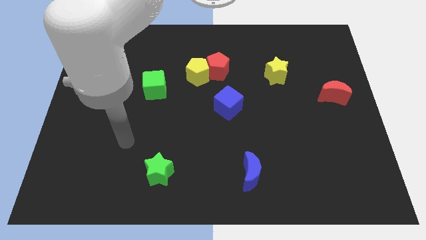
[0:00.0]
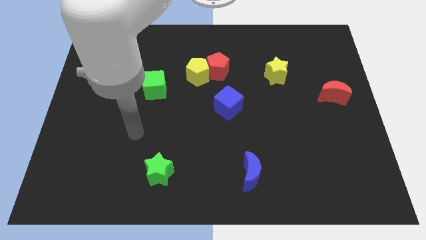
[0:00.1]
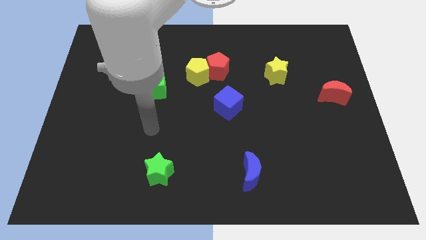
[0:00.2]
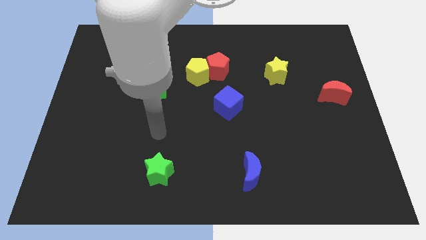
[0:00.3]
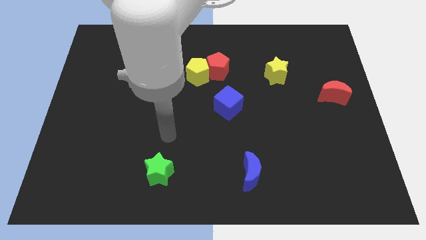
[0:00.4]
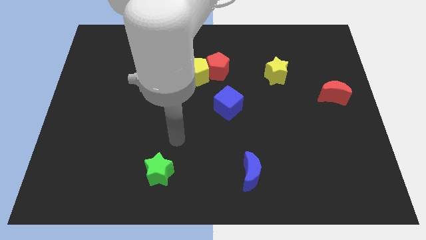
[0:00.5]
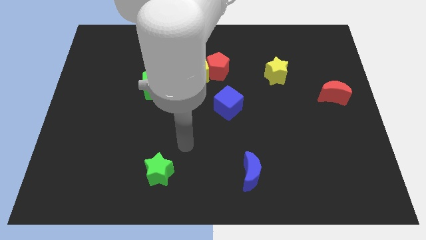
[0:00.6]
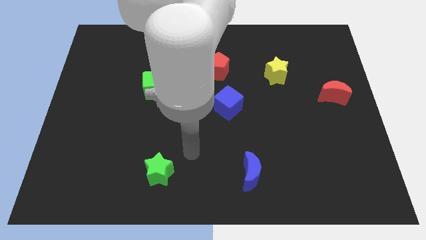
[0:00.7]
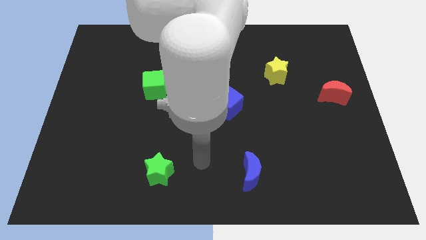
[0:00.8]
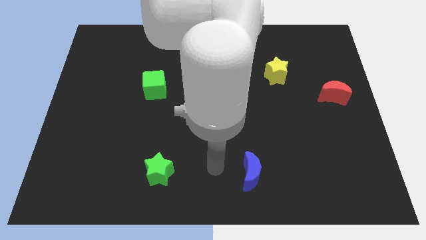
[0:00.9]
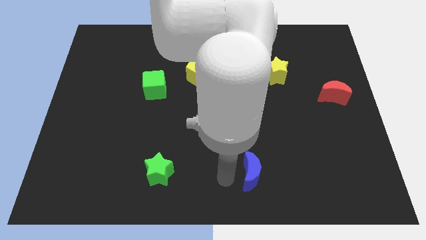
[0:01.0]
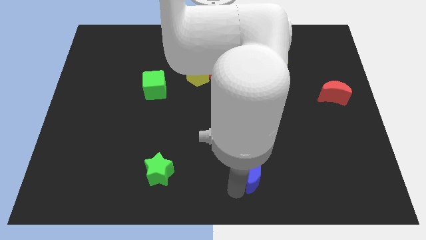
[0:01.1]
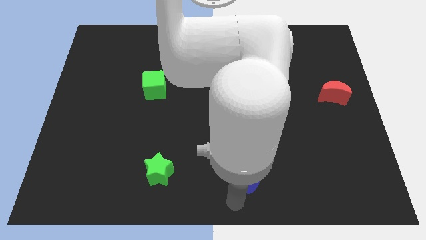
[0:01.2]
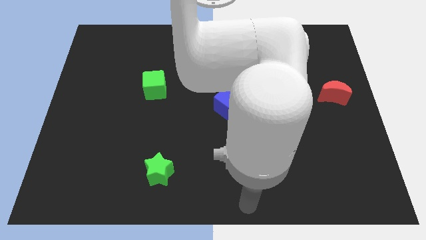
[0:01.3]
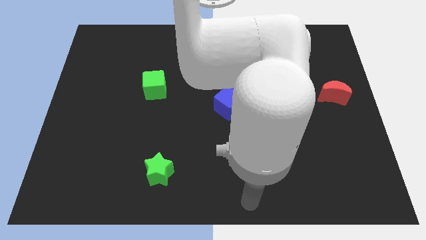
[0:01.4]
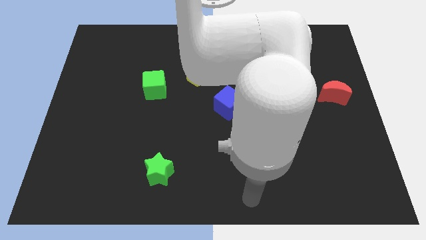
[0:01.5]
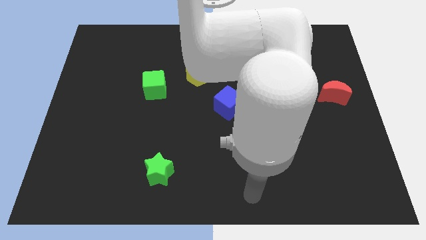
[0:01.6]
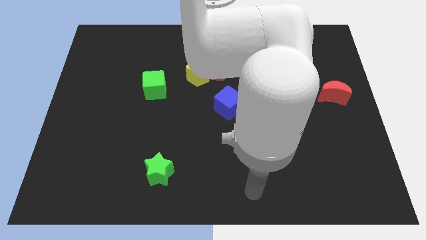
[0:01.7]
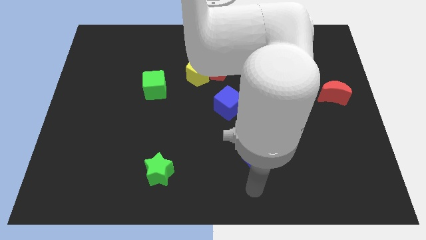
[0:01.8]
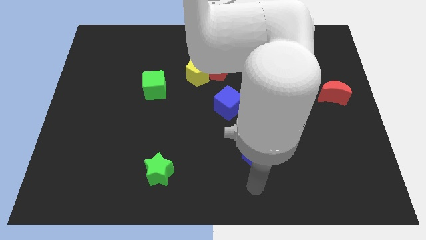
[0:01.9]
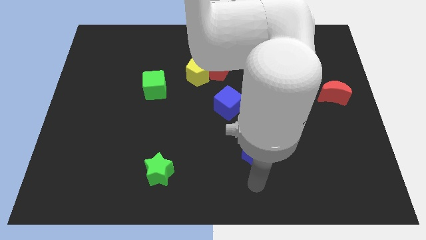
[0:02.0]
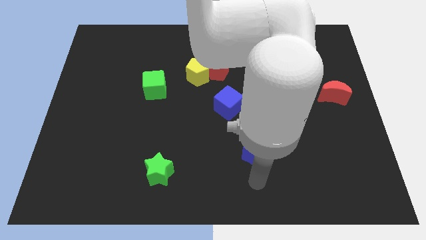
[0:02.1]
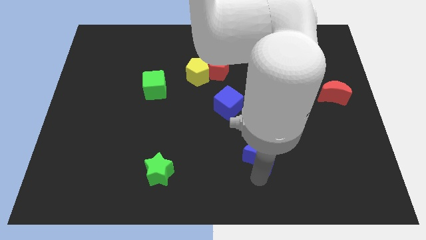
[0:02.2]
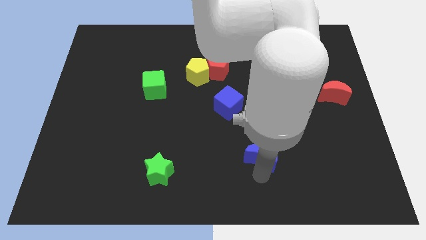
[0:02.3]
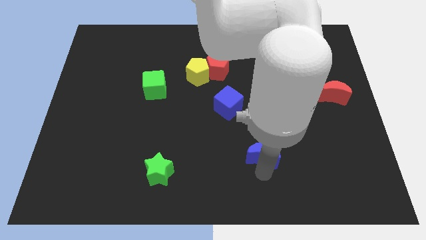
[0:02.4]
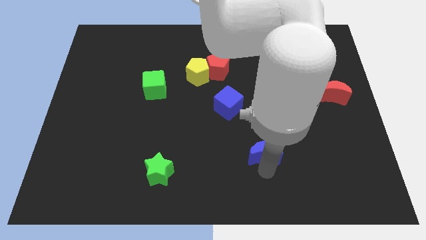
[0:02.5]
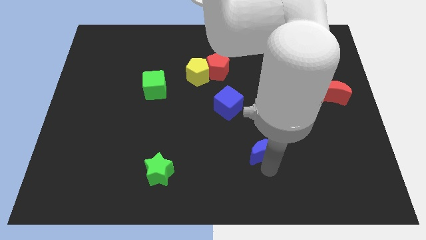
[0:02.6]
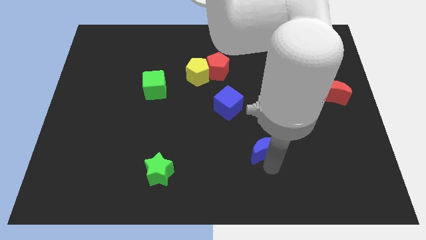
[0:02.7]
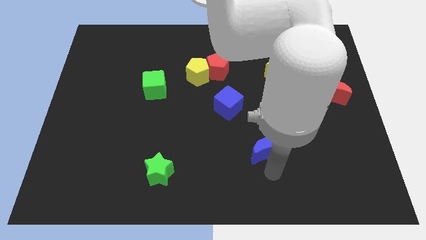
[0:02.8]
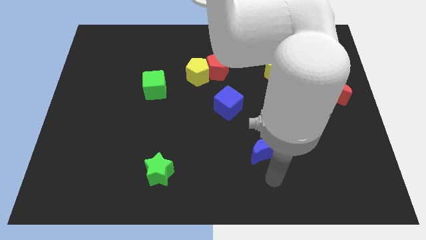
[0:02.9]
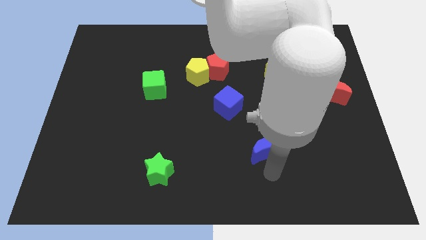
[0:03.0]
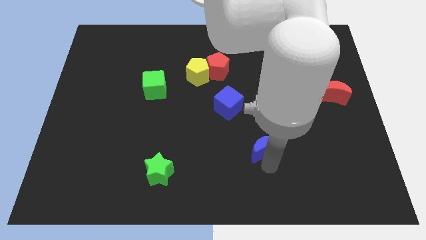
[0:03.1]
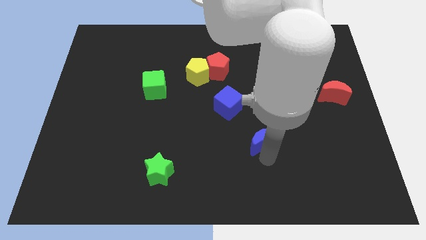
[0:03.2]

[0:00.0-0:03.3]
slightly move the blue moon upwards

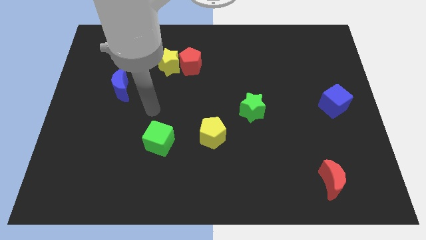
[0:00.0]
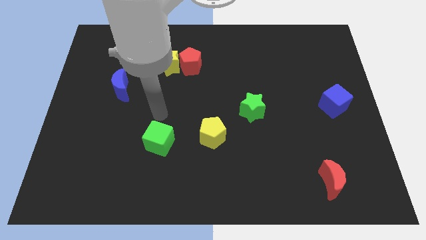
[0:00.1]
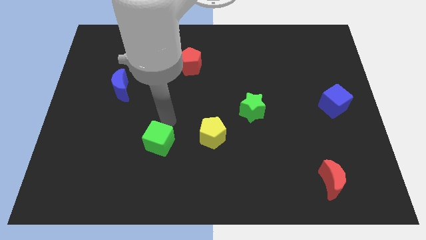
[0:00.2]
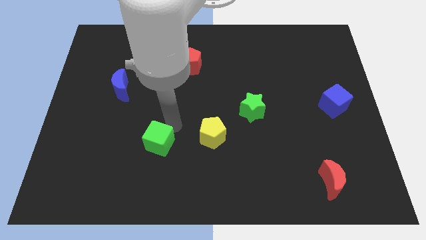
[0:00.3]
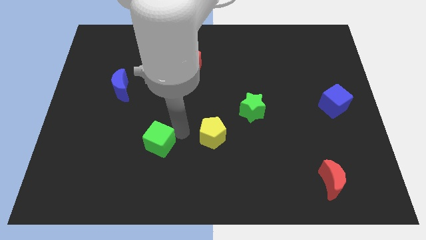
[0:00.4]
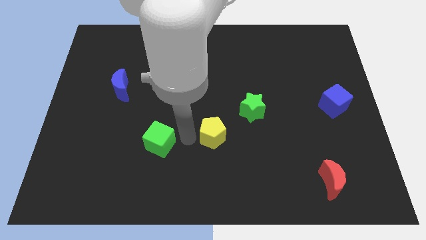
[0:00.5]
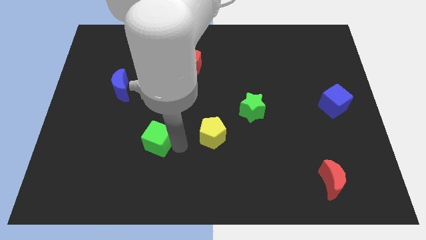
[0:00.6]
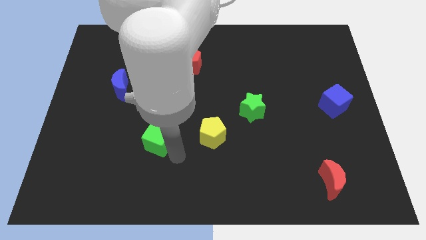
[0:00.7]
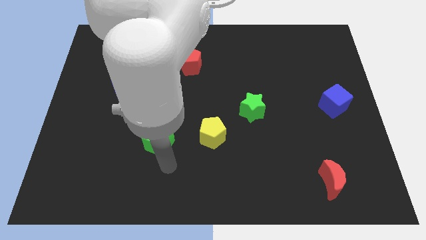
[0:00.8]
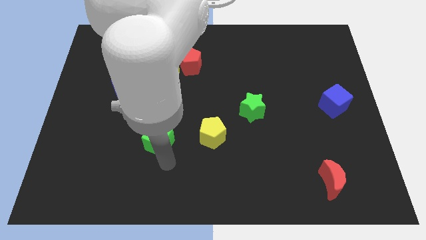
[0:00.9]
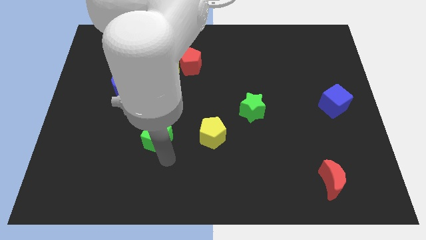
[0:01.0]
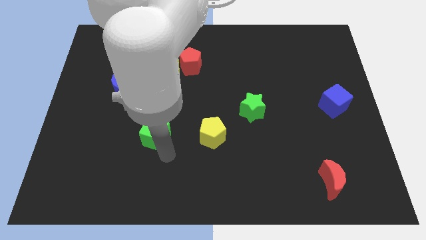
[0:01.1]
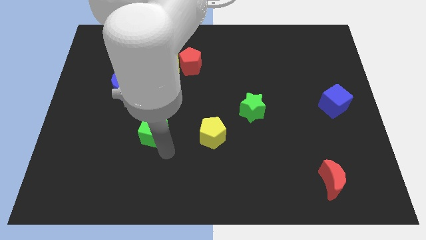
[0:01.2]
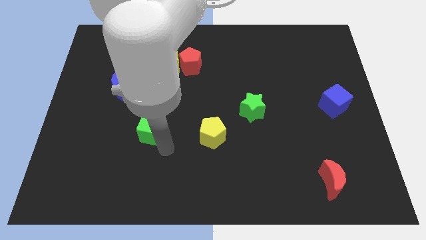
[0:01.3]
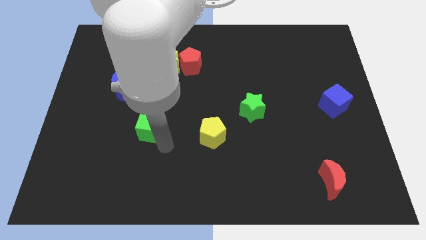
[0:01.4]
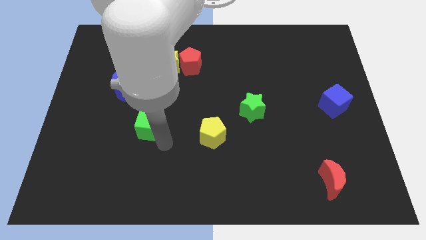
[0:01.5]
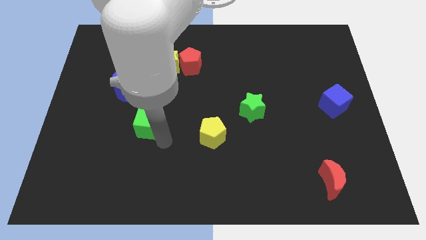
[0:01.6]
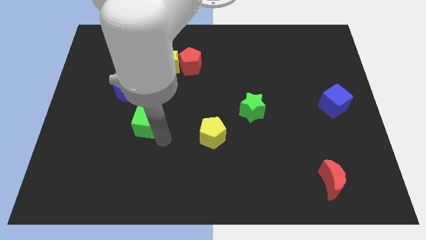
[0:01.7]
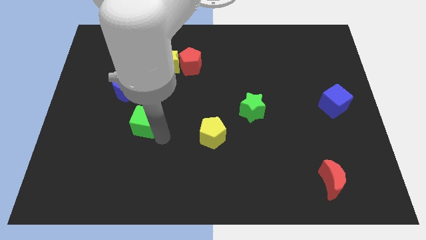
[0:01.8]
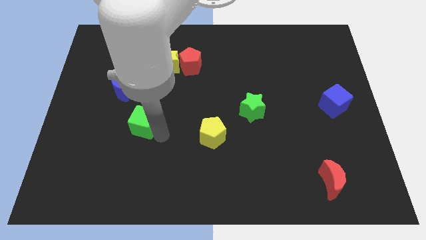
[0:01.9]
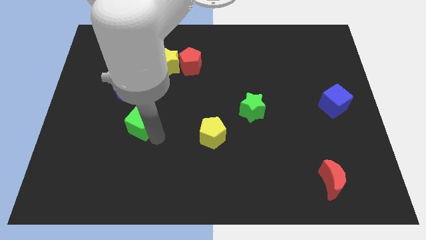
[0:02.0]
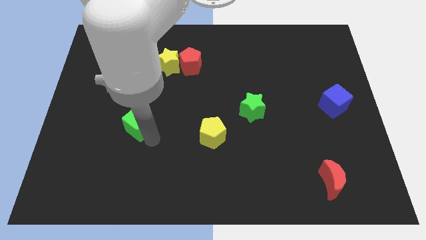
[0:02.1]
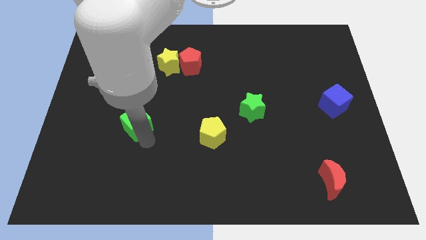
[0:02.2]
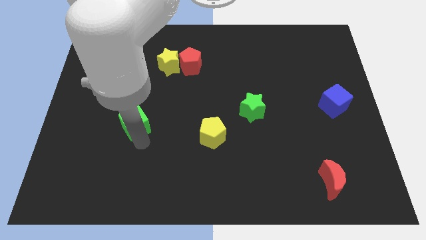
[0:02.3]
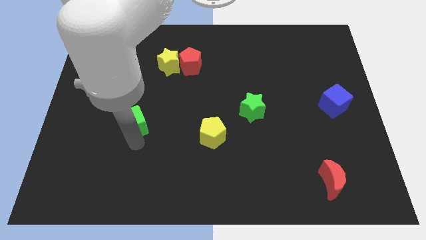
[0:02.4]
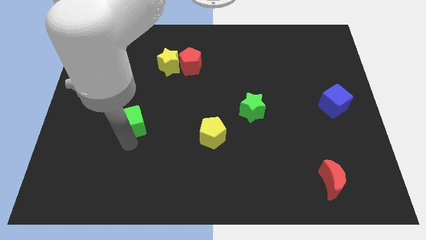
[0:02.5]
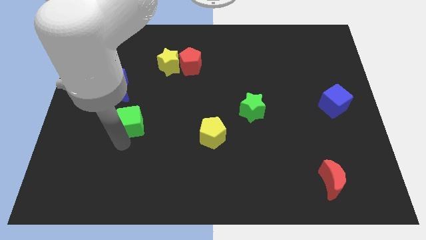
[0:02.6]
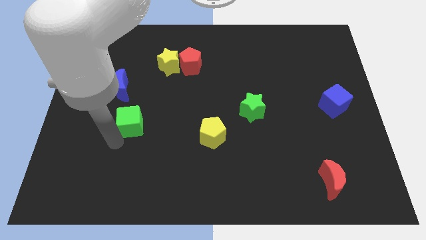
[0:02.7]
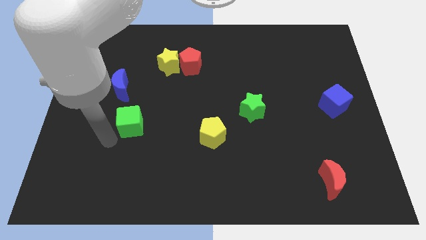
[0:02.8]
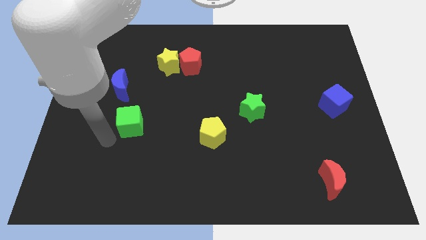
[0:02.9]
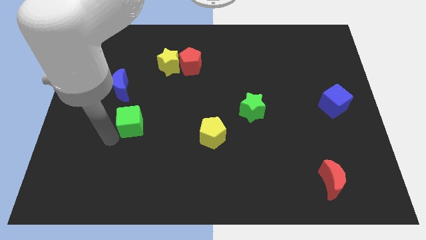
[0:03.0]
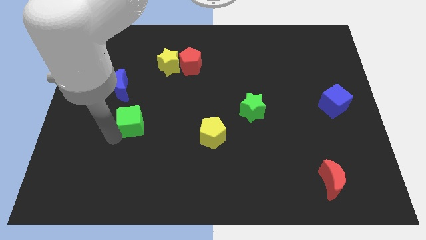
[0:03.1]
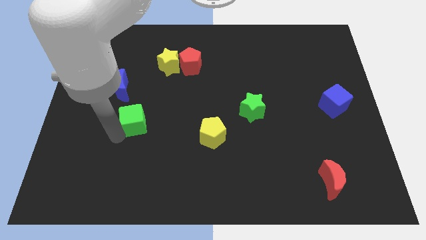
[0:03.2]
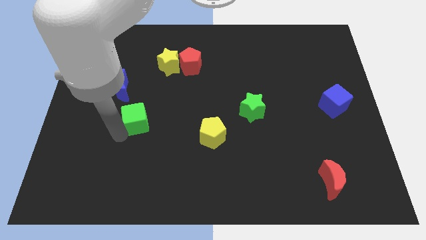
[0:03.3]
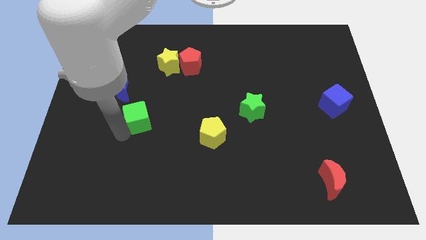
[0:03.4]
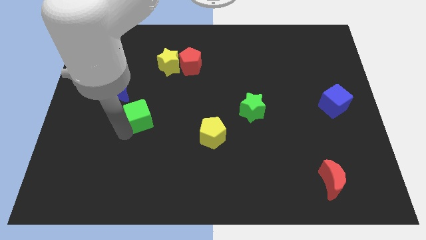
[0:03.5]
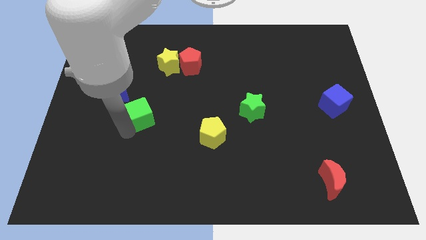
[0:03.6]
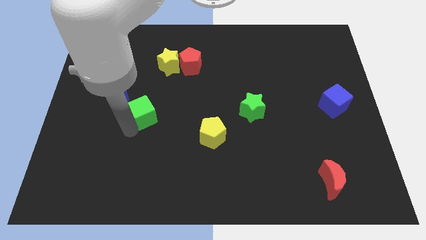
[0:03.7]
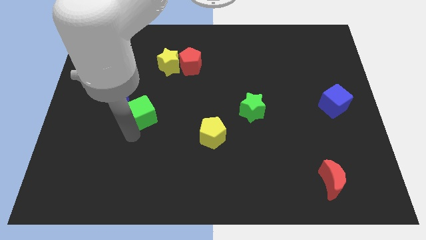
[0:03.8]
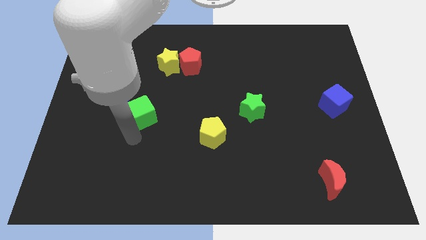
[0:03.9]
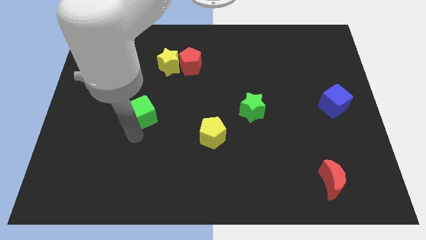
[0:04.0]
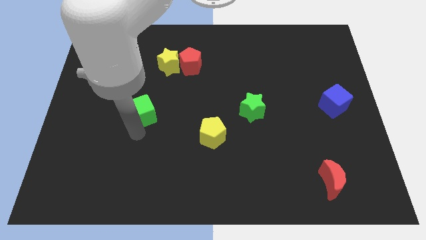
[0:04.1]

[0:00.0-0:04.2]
move the green cube somewhat up

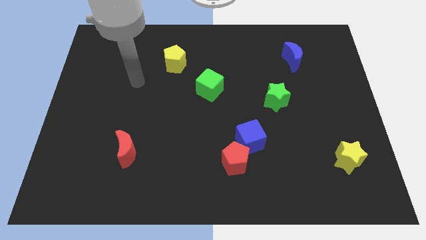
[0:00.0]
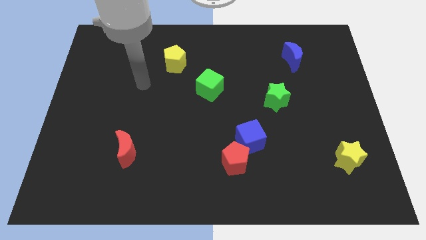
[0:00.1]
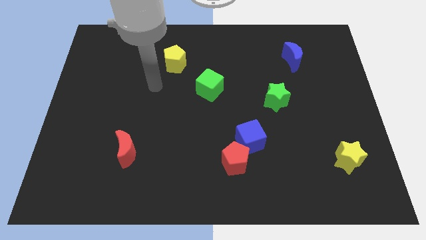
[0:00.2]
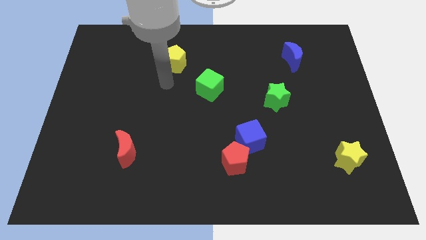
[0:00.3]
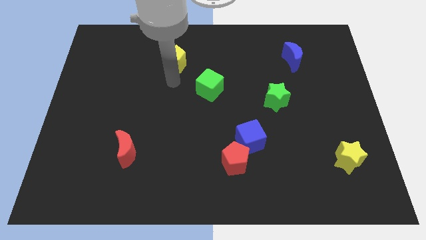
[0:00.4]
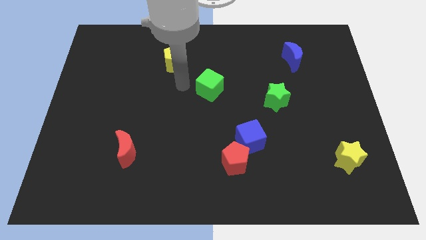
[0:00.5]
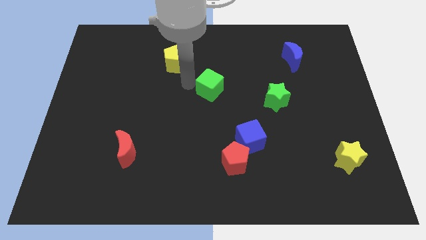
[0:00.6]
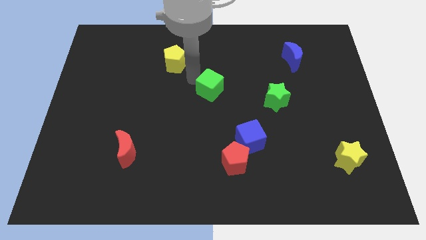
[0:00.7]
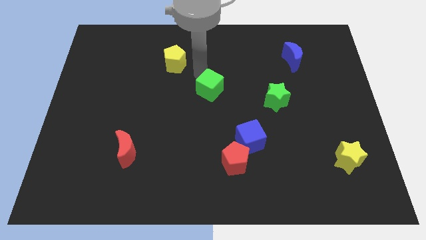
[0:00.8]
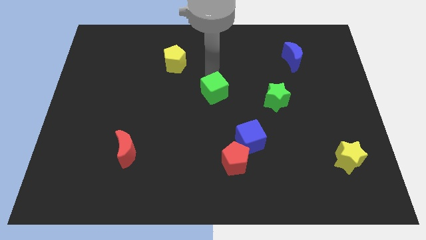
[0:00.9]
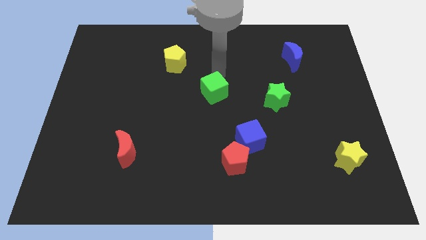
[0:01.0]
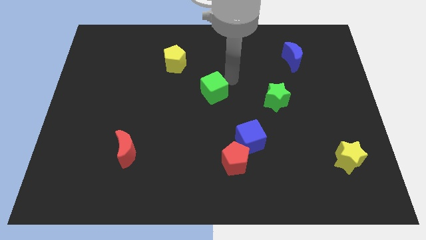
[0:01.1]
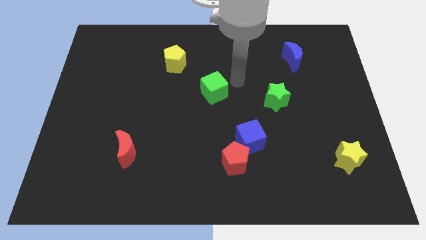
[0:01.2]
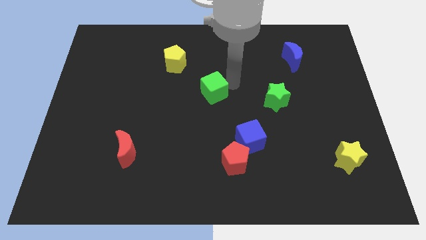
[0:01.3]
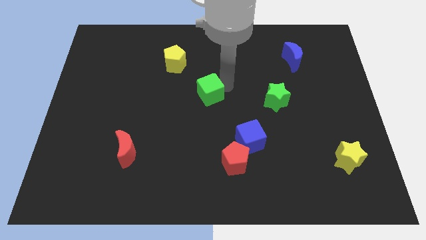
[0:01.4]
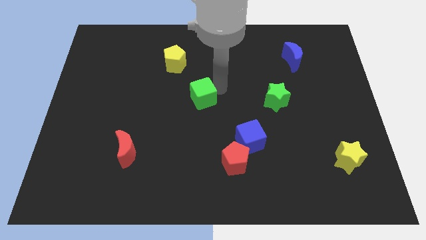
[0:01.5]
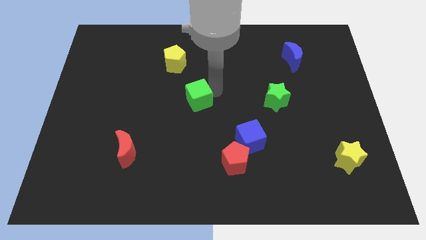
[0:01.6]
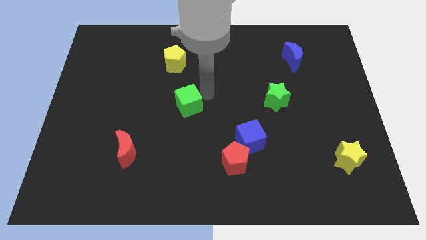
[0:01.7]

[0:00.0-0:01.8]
slightly slide the green cube downwards and then left
